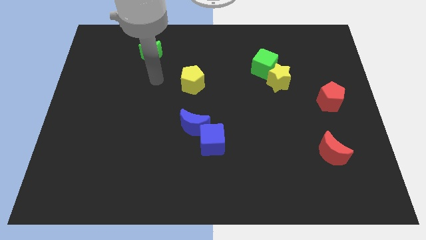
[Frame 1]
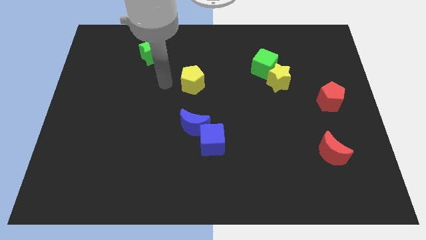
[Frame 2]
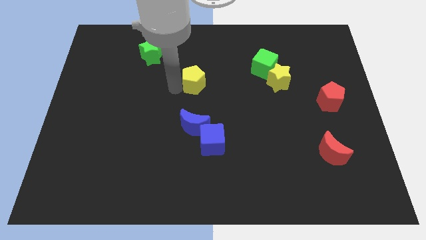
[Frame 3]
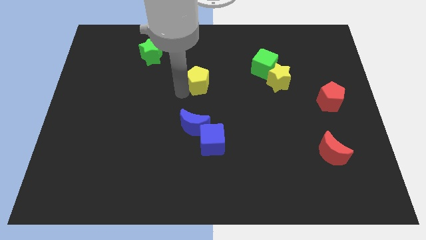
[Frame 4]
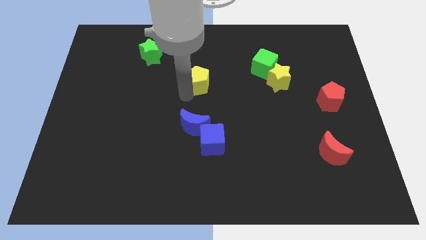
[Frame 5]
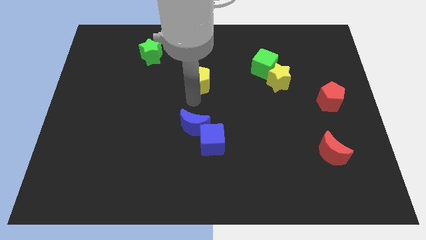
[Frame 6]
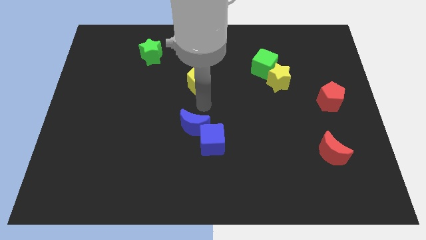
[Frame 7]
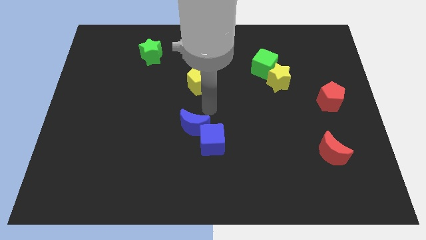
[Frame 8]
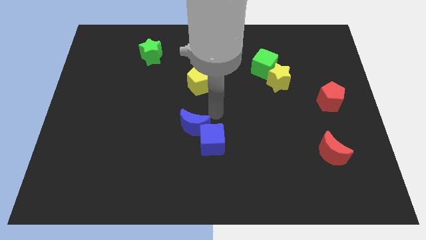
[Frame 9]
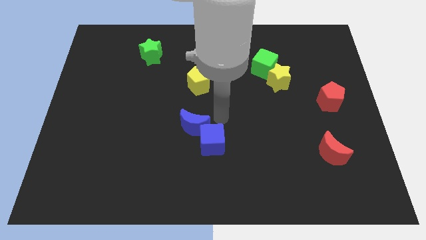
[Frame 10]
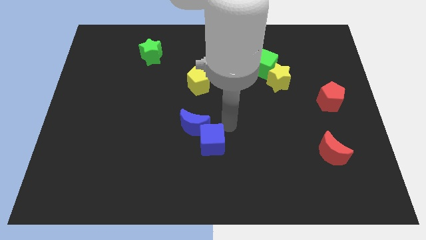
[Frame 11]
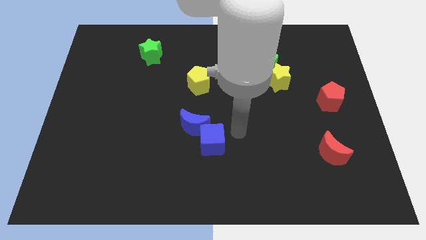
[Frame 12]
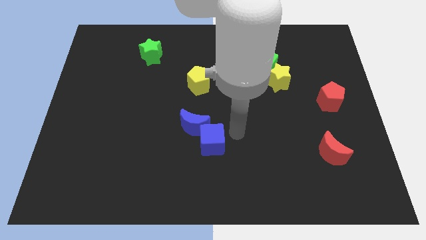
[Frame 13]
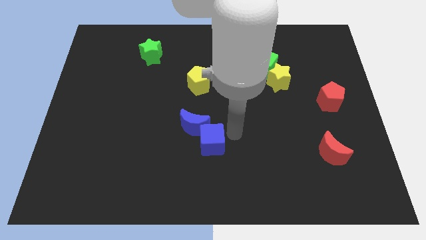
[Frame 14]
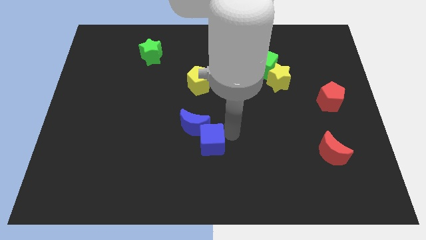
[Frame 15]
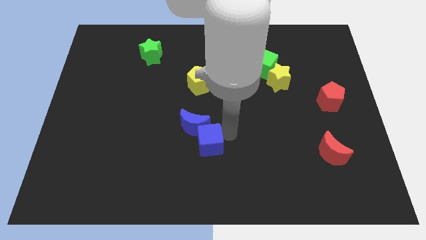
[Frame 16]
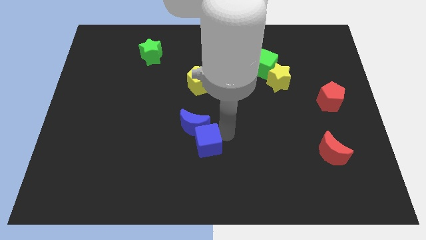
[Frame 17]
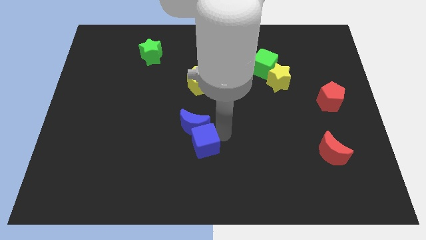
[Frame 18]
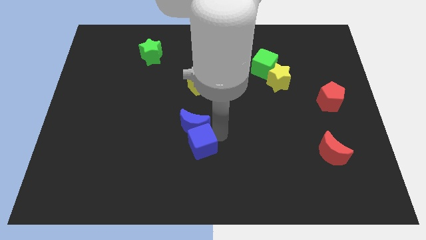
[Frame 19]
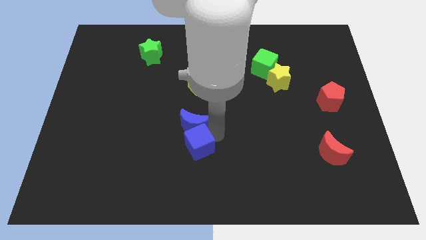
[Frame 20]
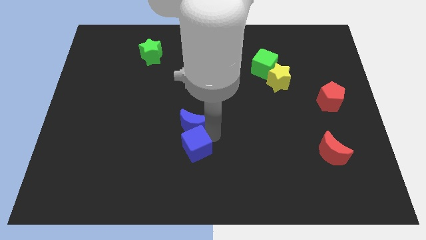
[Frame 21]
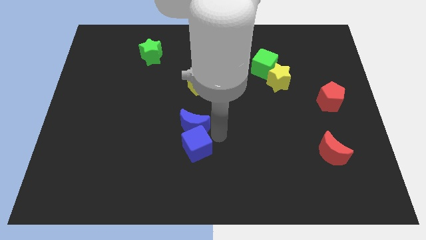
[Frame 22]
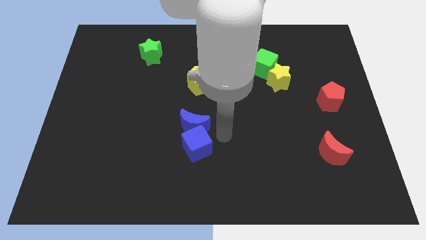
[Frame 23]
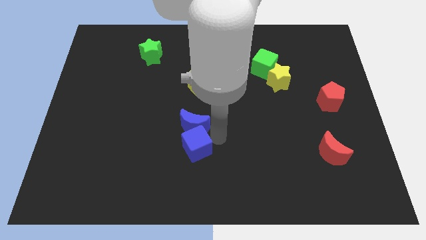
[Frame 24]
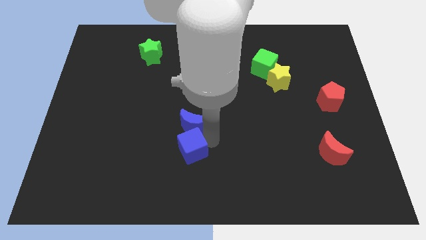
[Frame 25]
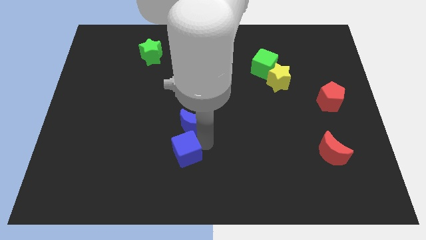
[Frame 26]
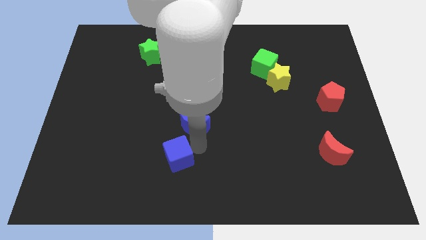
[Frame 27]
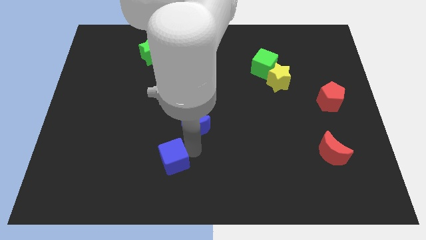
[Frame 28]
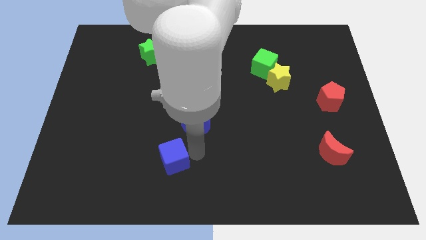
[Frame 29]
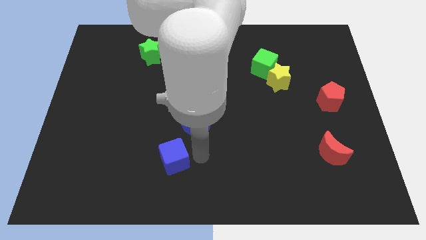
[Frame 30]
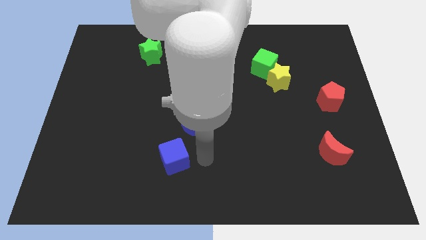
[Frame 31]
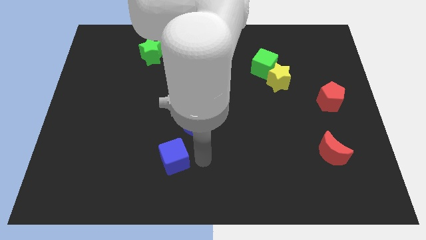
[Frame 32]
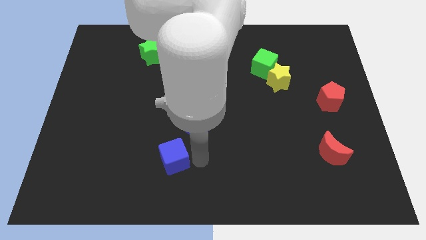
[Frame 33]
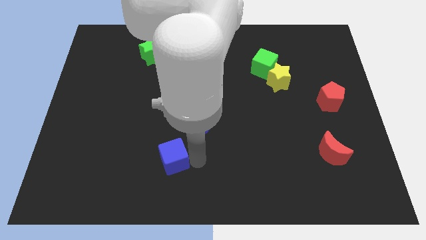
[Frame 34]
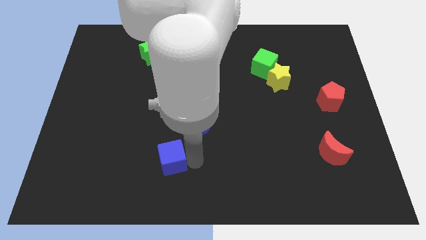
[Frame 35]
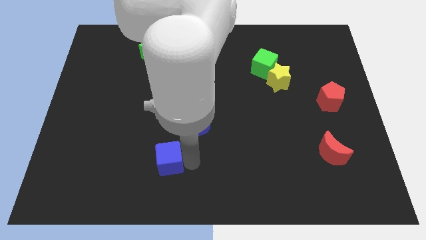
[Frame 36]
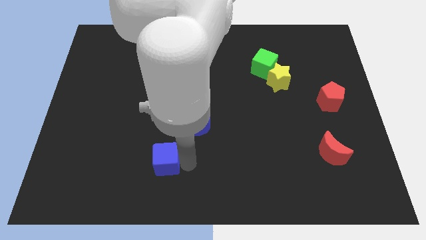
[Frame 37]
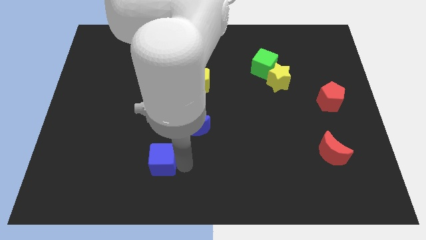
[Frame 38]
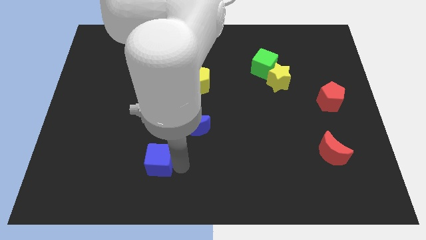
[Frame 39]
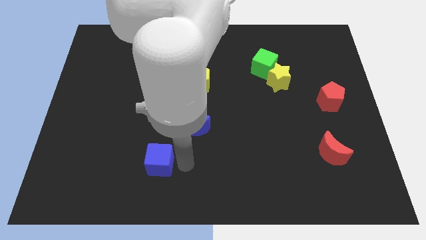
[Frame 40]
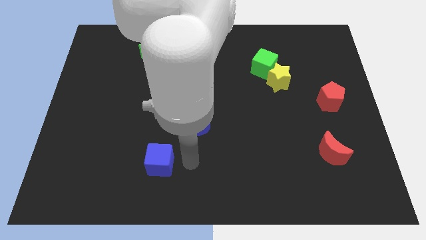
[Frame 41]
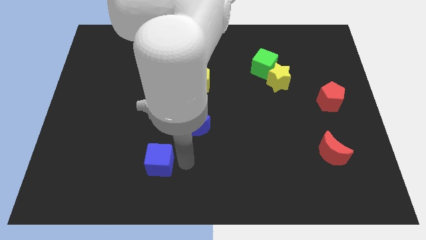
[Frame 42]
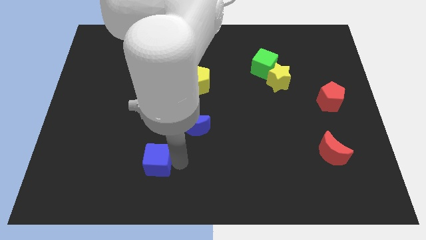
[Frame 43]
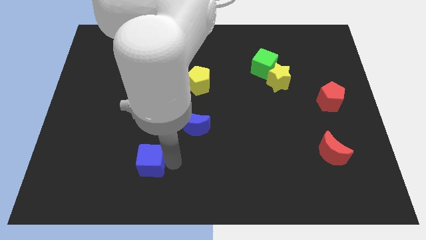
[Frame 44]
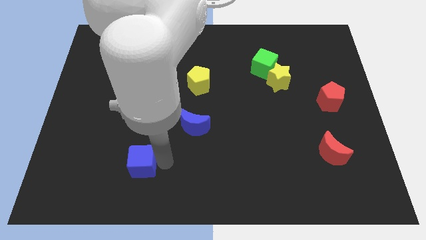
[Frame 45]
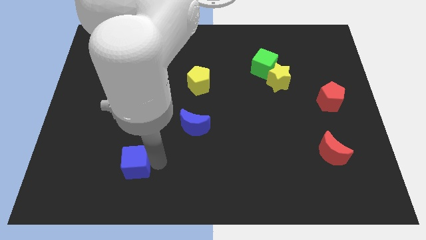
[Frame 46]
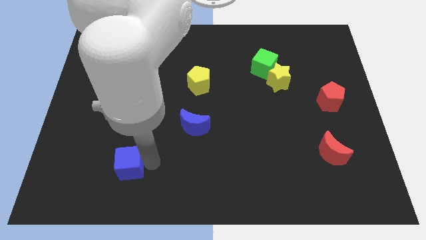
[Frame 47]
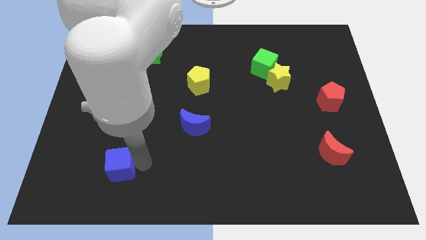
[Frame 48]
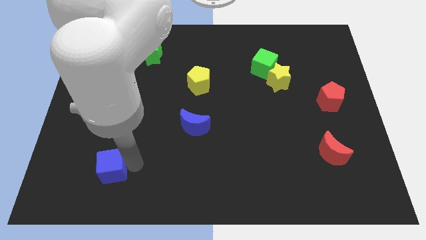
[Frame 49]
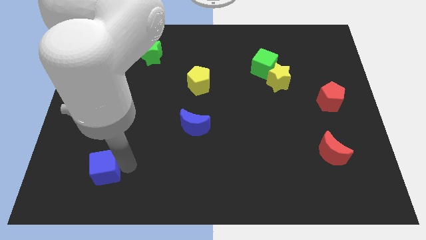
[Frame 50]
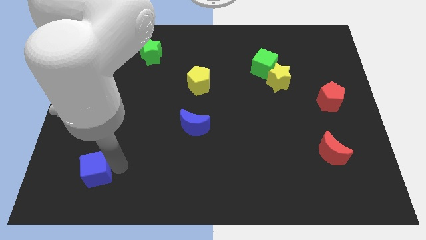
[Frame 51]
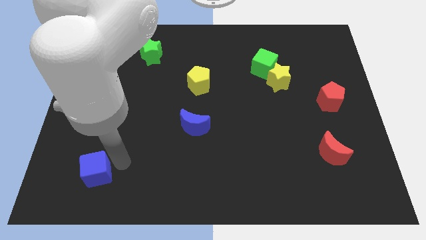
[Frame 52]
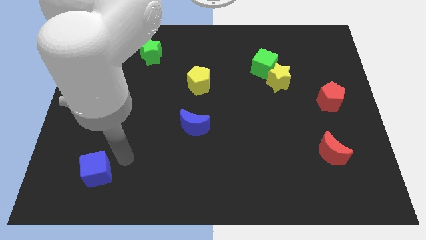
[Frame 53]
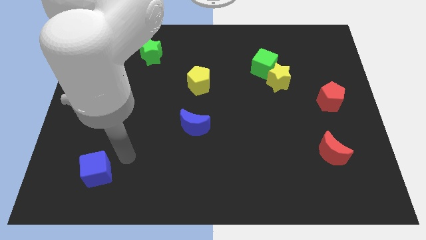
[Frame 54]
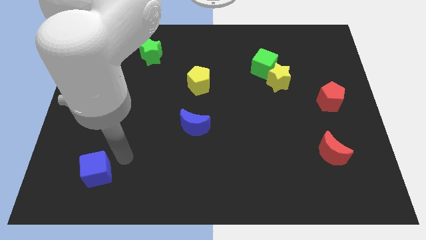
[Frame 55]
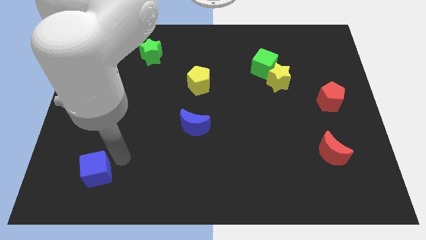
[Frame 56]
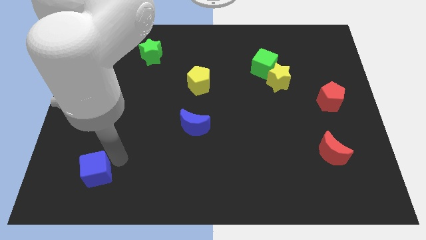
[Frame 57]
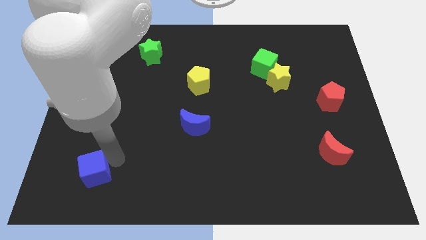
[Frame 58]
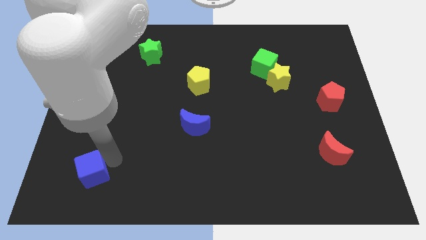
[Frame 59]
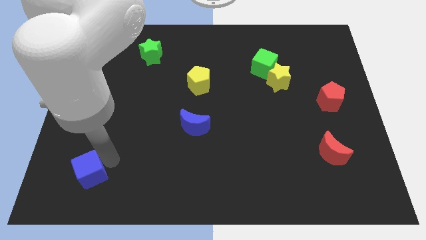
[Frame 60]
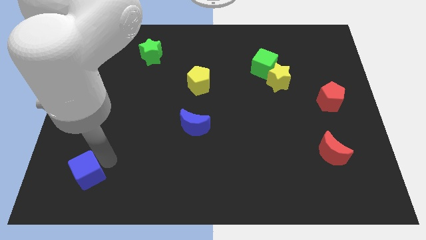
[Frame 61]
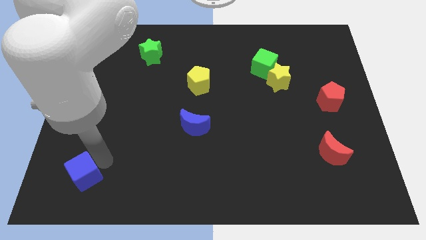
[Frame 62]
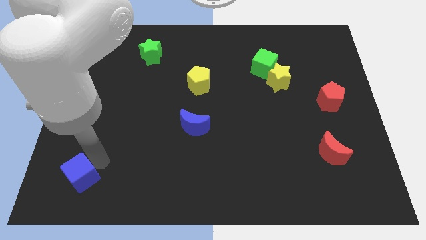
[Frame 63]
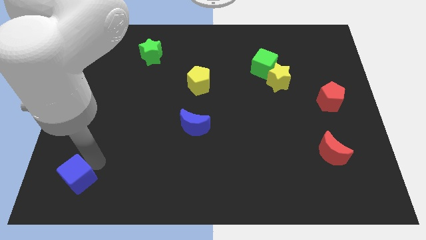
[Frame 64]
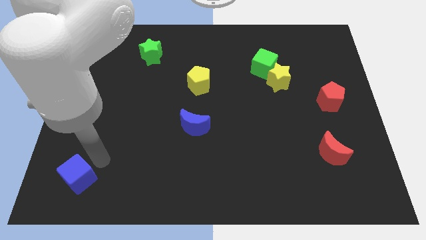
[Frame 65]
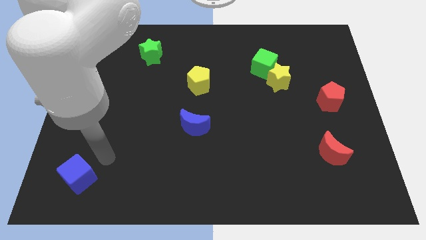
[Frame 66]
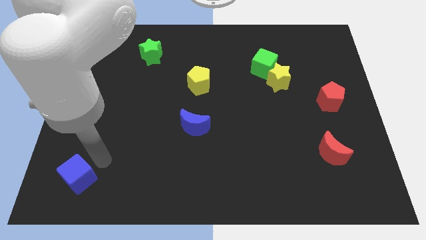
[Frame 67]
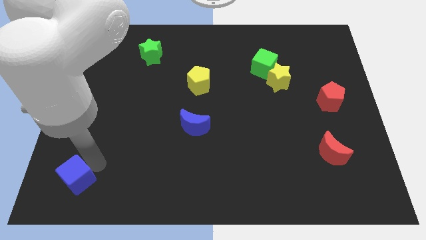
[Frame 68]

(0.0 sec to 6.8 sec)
put the blue cube to the bottom left
